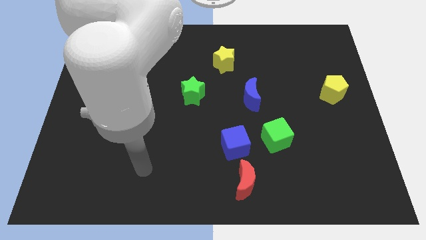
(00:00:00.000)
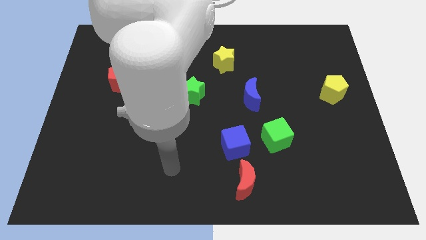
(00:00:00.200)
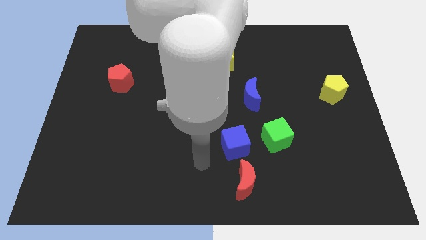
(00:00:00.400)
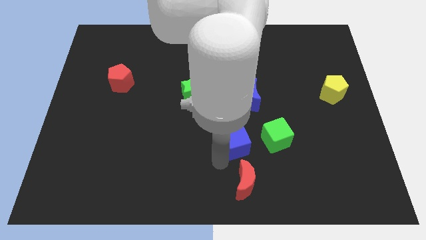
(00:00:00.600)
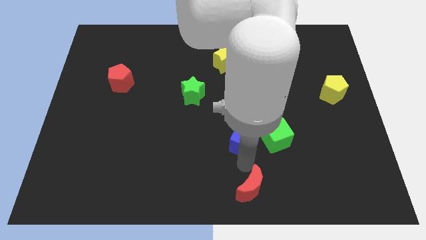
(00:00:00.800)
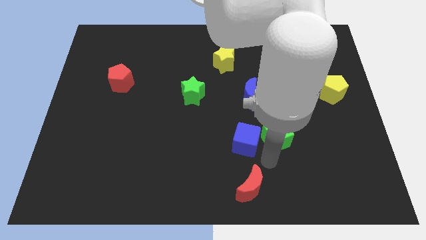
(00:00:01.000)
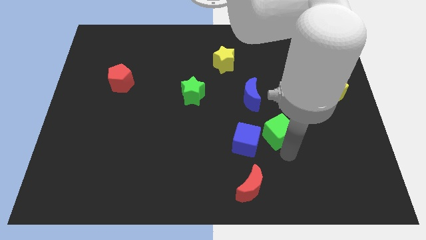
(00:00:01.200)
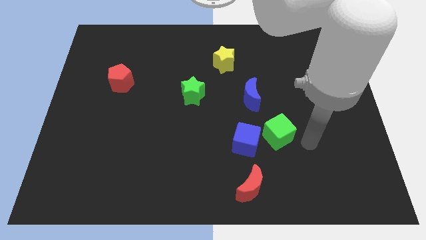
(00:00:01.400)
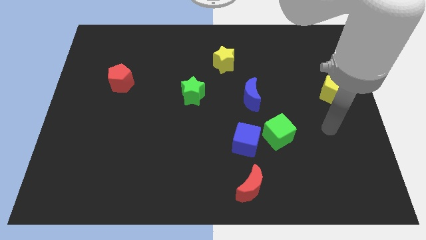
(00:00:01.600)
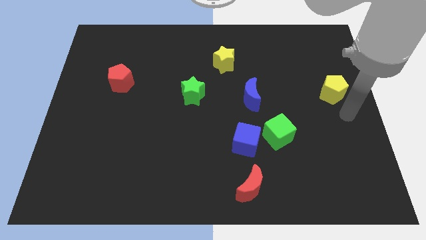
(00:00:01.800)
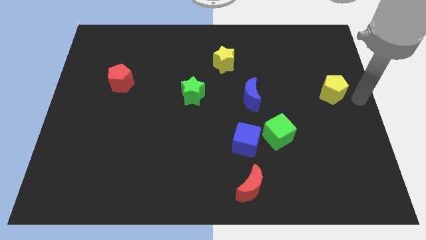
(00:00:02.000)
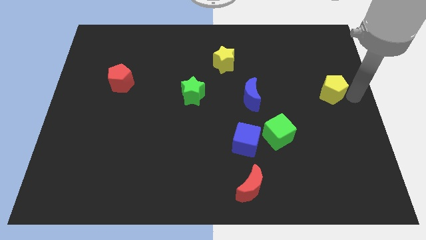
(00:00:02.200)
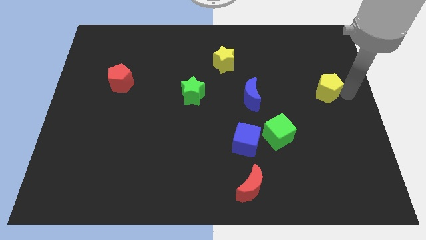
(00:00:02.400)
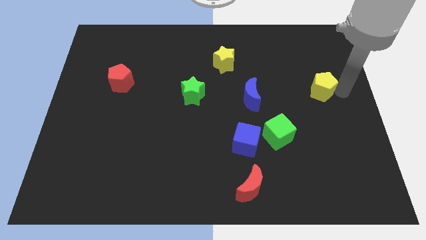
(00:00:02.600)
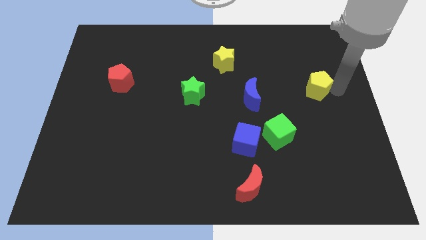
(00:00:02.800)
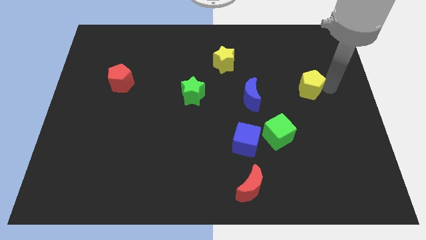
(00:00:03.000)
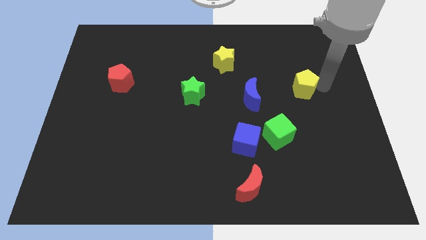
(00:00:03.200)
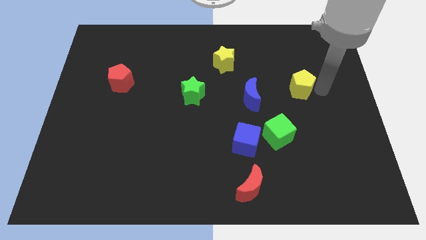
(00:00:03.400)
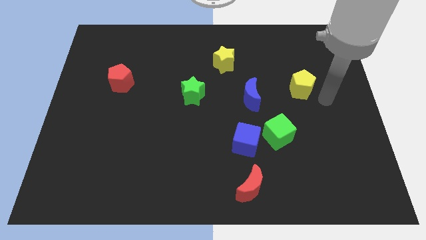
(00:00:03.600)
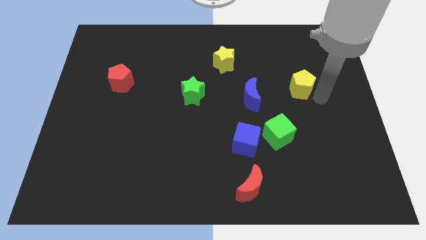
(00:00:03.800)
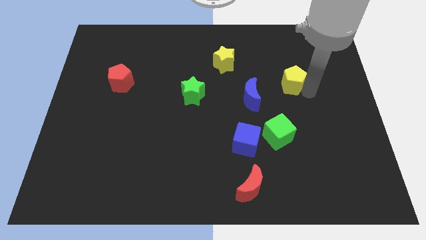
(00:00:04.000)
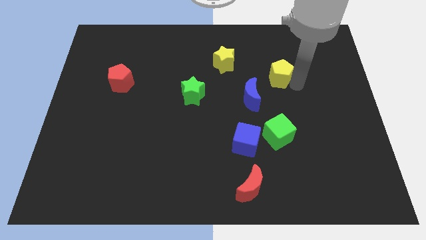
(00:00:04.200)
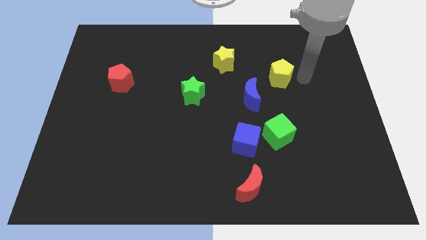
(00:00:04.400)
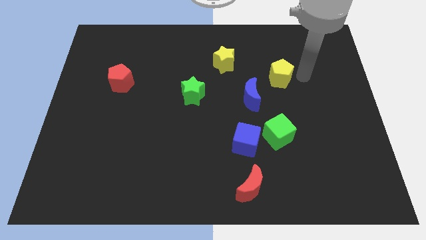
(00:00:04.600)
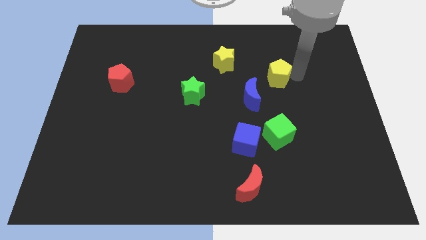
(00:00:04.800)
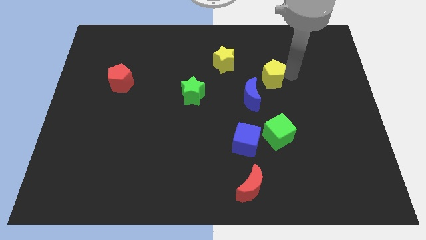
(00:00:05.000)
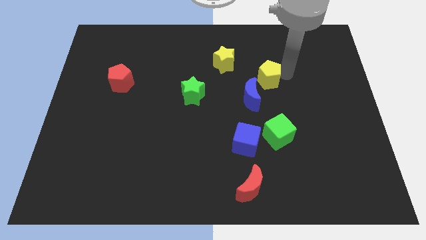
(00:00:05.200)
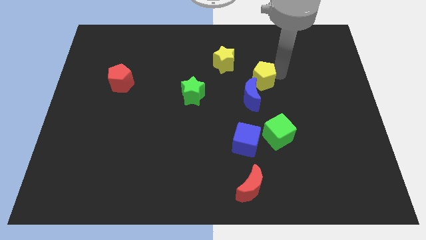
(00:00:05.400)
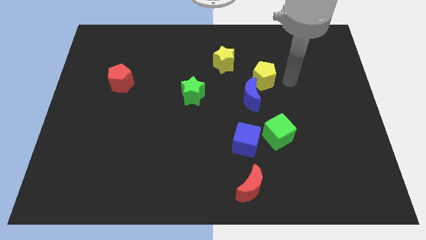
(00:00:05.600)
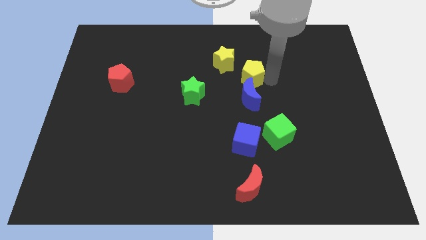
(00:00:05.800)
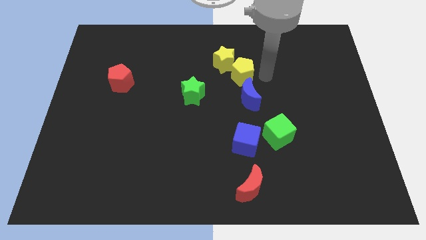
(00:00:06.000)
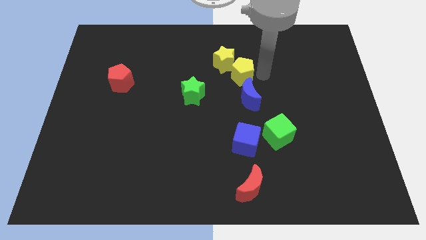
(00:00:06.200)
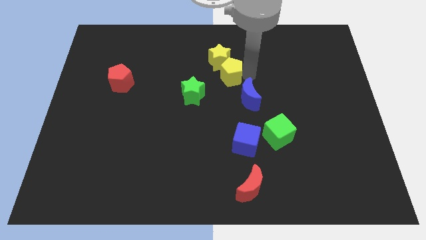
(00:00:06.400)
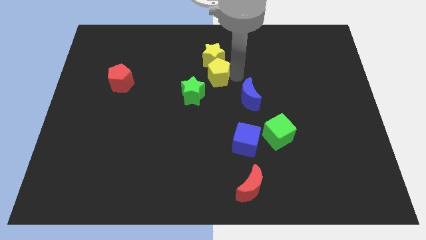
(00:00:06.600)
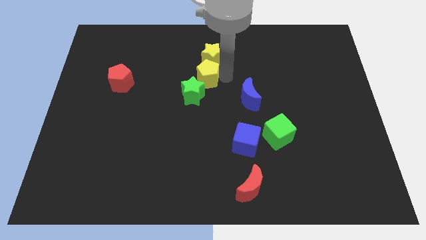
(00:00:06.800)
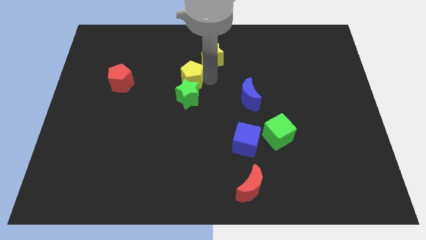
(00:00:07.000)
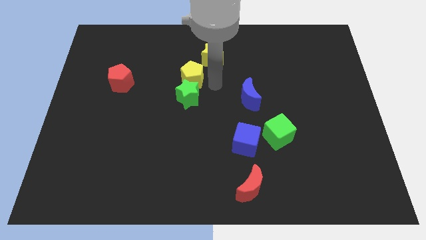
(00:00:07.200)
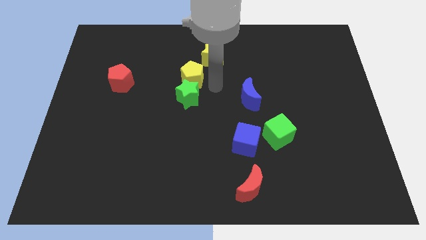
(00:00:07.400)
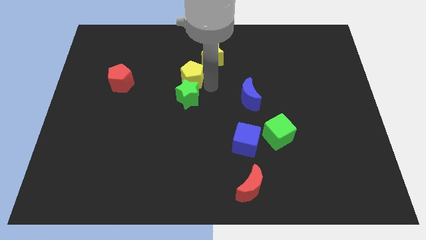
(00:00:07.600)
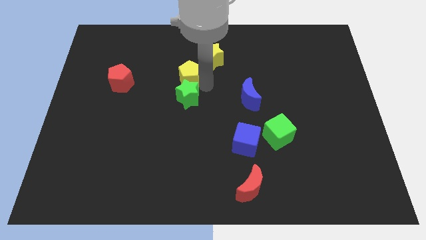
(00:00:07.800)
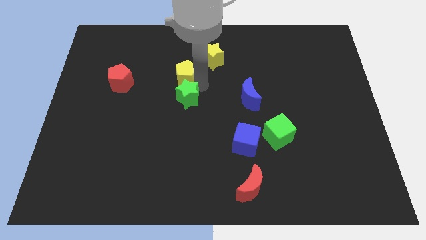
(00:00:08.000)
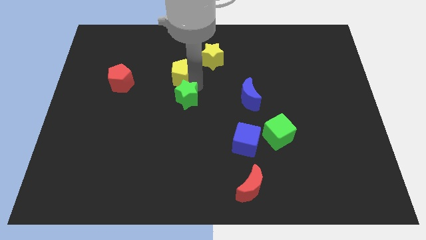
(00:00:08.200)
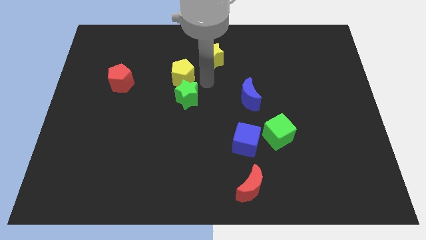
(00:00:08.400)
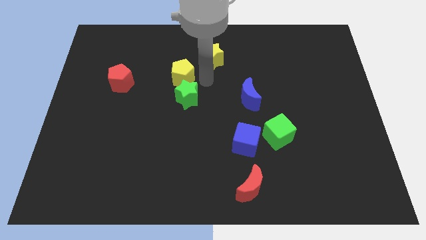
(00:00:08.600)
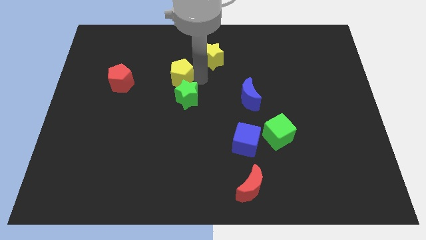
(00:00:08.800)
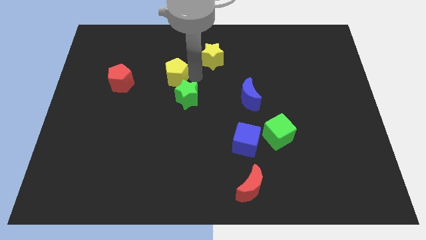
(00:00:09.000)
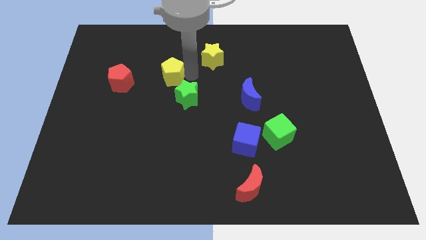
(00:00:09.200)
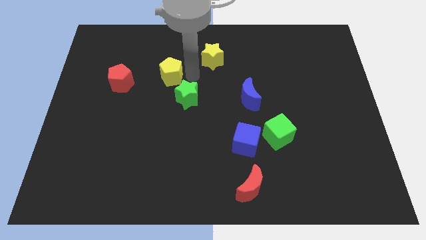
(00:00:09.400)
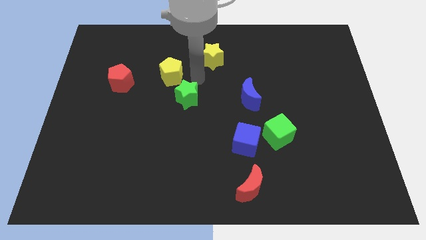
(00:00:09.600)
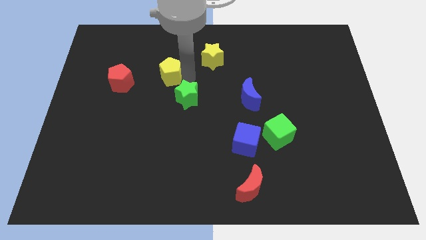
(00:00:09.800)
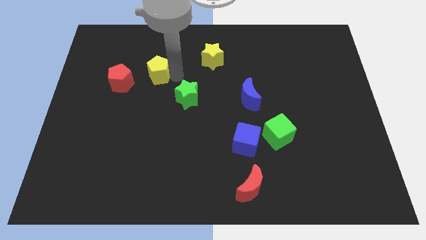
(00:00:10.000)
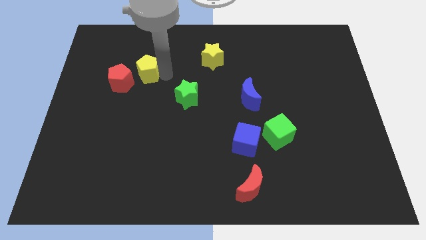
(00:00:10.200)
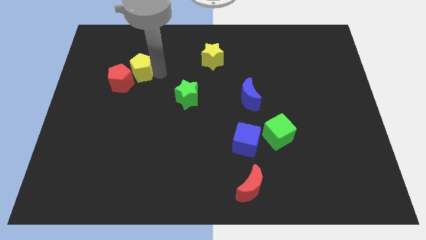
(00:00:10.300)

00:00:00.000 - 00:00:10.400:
put the yellow pentagon to the red pentagon

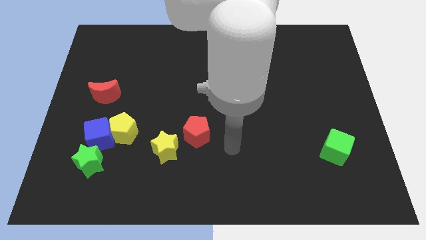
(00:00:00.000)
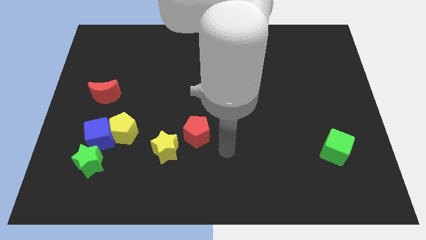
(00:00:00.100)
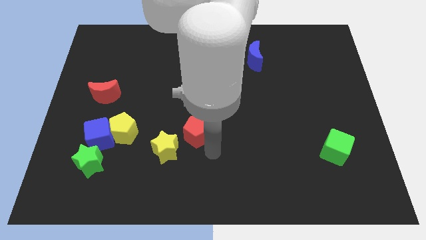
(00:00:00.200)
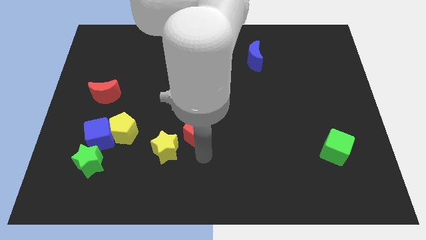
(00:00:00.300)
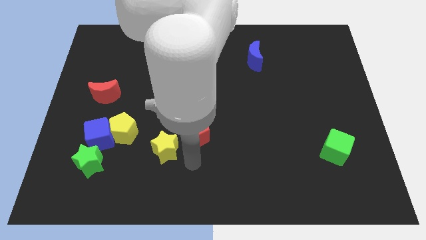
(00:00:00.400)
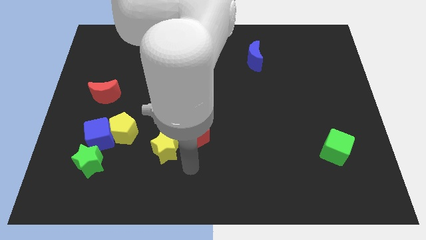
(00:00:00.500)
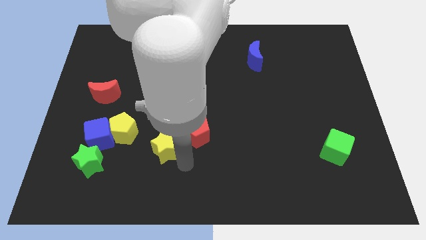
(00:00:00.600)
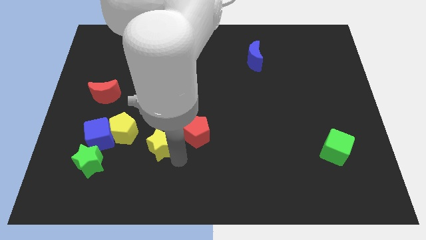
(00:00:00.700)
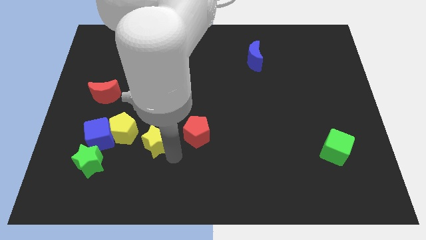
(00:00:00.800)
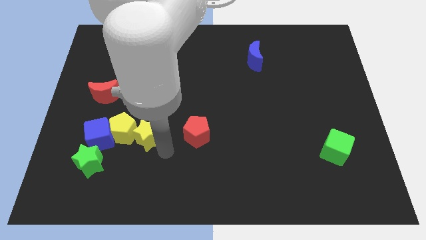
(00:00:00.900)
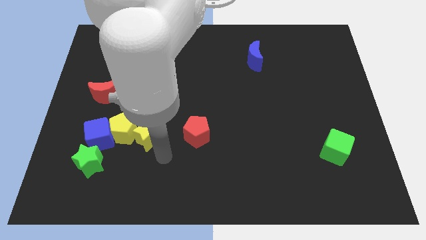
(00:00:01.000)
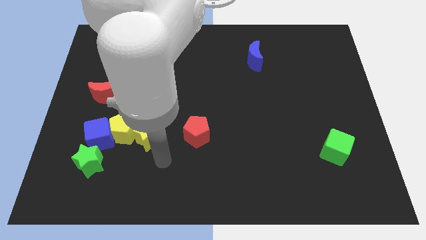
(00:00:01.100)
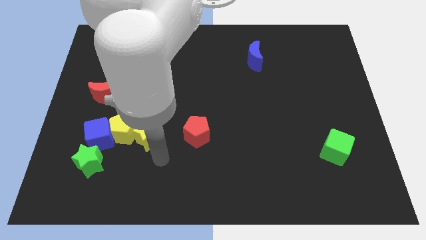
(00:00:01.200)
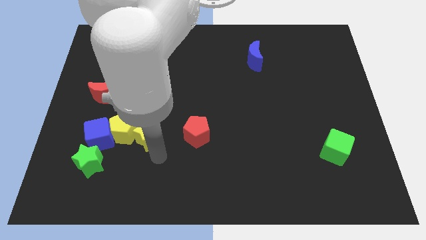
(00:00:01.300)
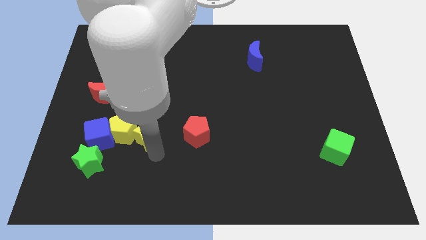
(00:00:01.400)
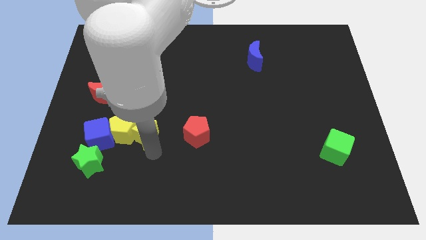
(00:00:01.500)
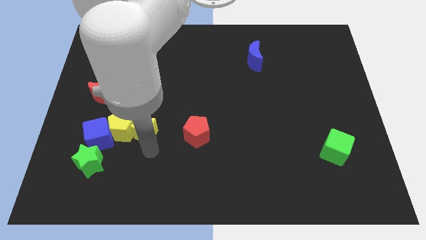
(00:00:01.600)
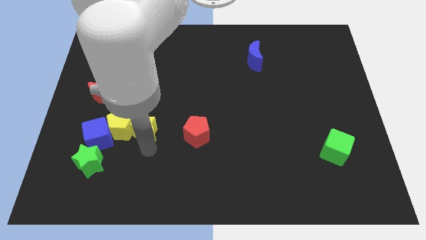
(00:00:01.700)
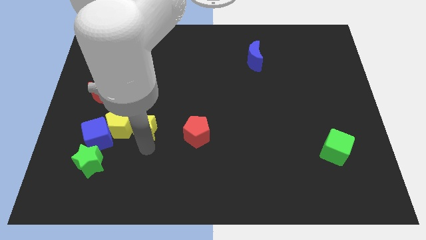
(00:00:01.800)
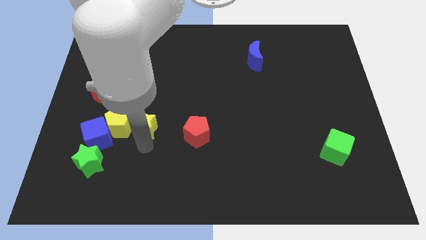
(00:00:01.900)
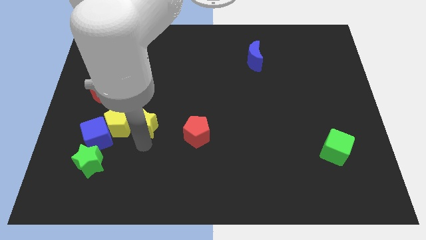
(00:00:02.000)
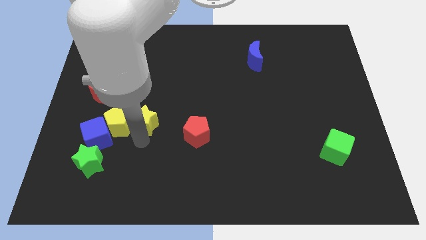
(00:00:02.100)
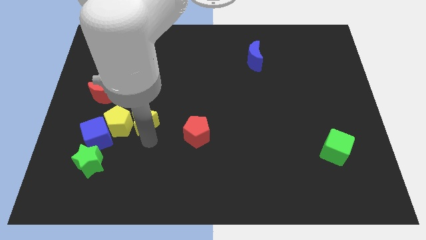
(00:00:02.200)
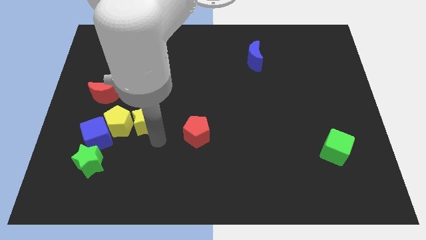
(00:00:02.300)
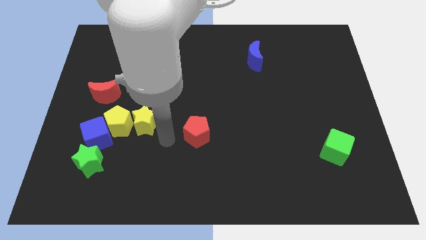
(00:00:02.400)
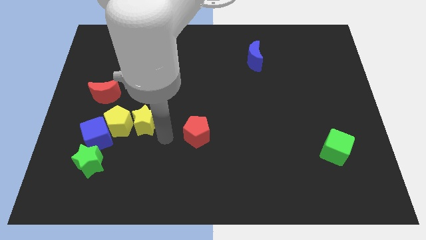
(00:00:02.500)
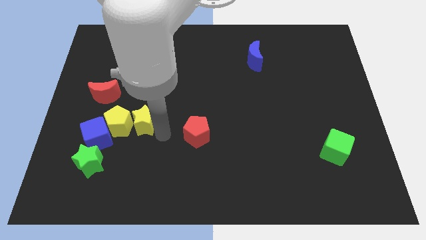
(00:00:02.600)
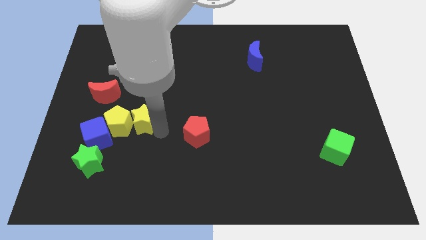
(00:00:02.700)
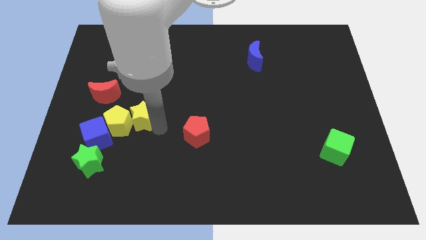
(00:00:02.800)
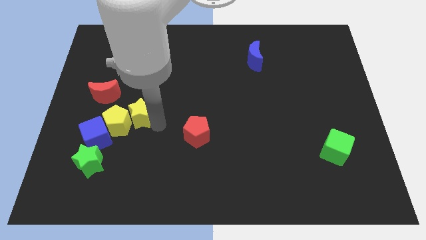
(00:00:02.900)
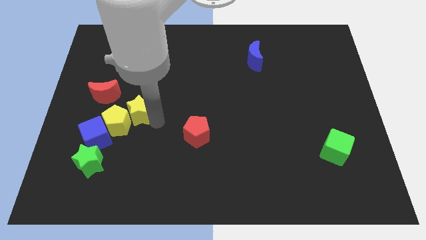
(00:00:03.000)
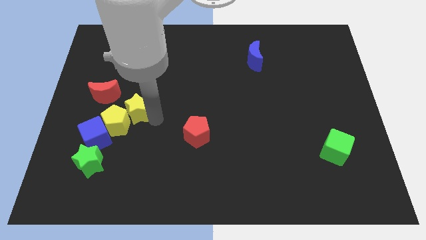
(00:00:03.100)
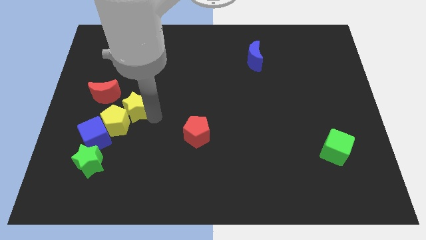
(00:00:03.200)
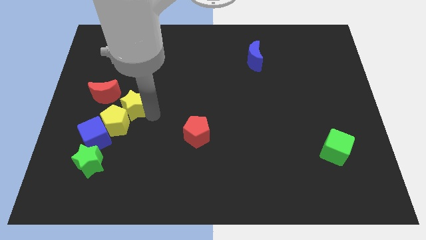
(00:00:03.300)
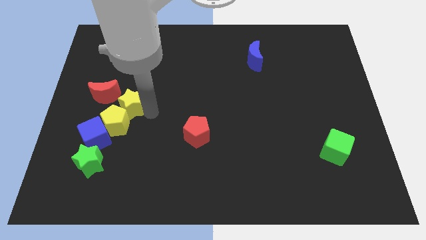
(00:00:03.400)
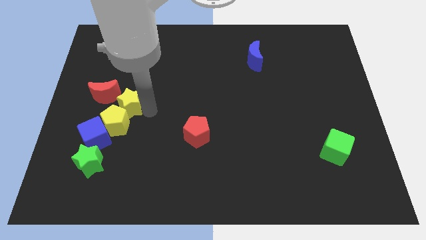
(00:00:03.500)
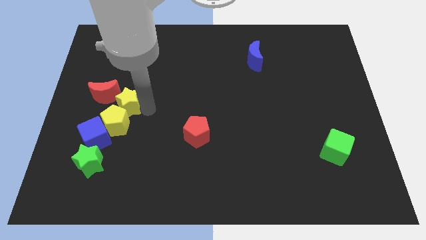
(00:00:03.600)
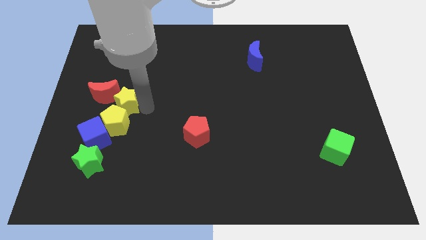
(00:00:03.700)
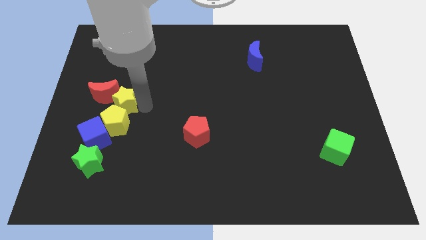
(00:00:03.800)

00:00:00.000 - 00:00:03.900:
put the yellow star next to the red moon
